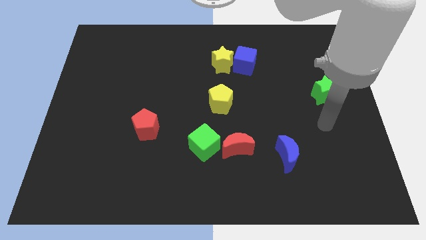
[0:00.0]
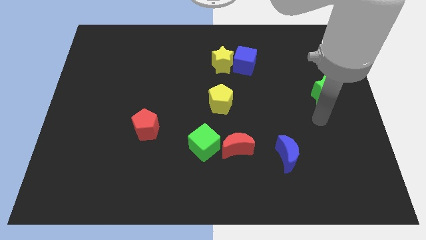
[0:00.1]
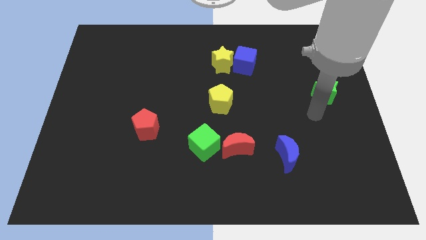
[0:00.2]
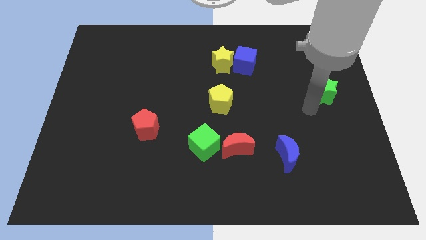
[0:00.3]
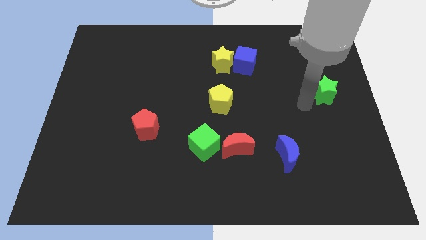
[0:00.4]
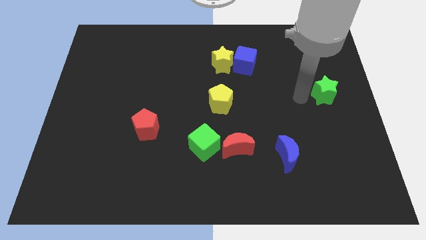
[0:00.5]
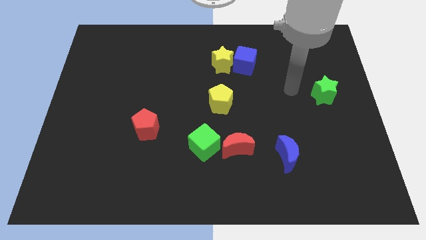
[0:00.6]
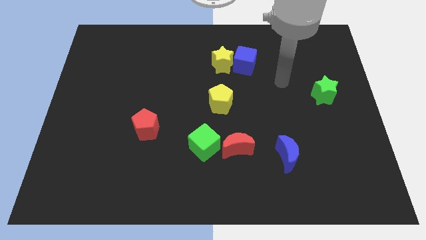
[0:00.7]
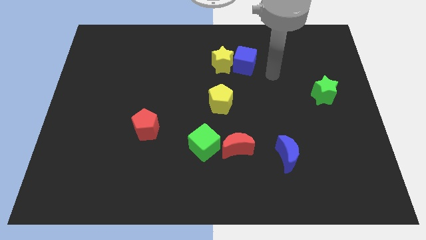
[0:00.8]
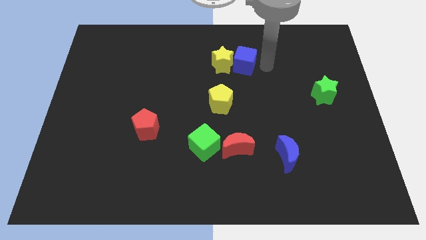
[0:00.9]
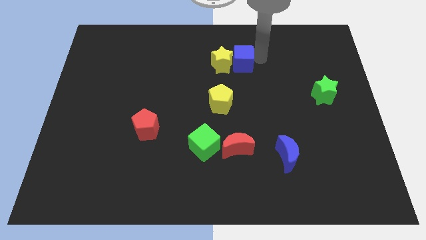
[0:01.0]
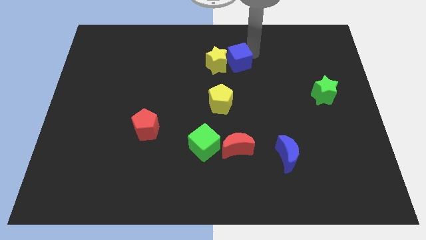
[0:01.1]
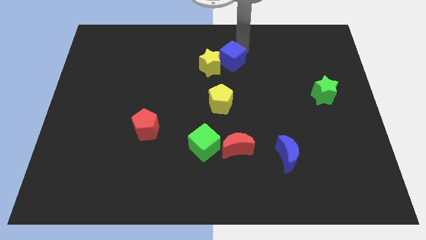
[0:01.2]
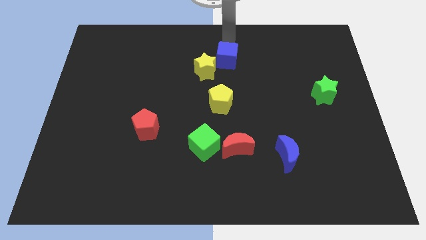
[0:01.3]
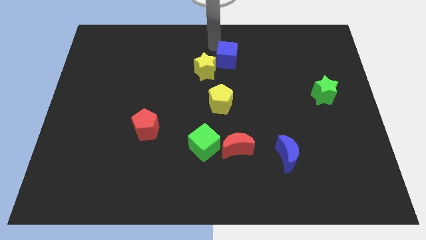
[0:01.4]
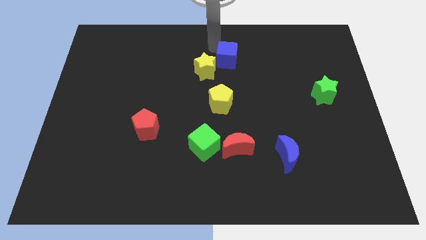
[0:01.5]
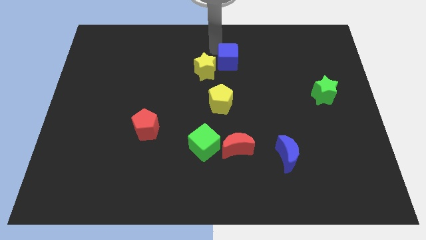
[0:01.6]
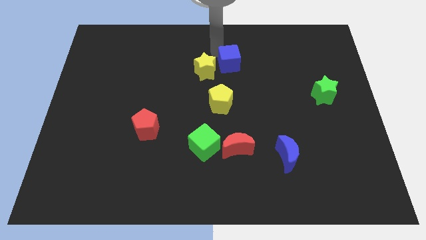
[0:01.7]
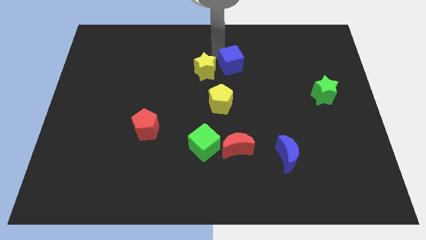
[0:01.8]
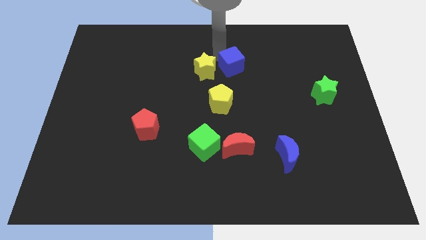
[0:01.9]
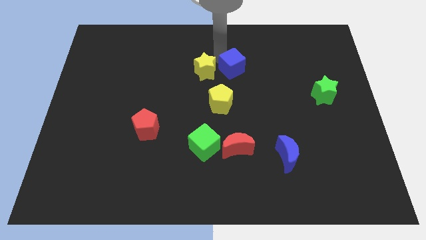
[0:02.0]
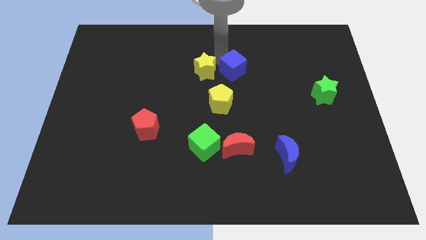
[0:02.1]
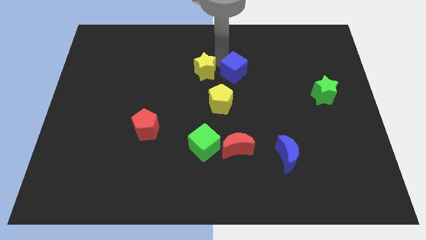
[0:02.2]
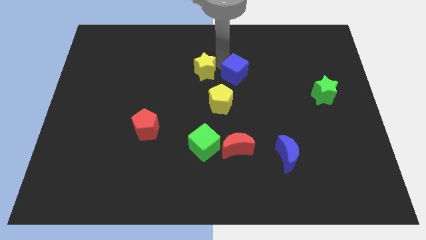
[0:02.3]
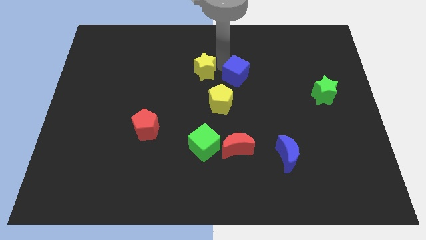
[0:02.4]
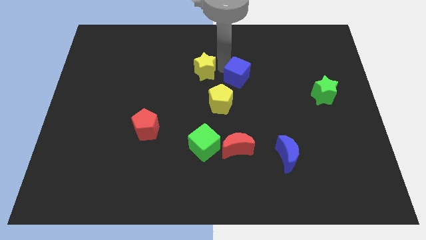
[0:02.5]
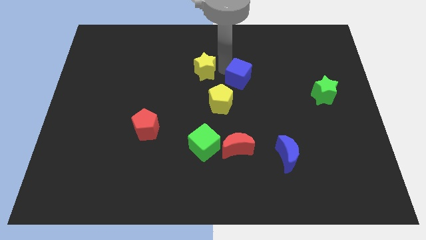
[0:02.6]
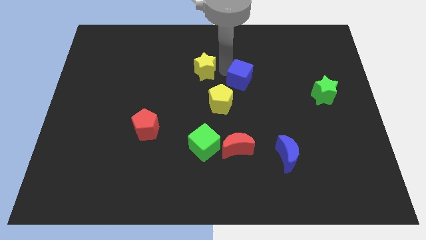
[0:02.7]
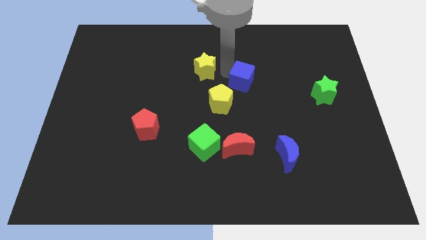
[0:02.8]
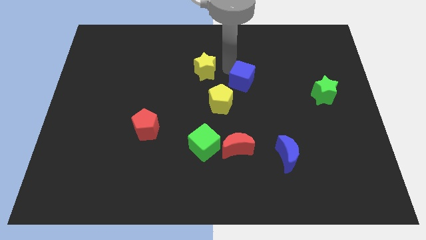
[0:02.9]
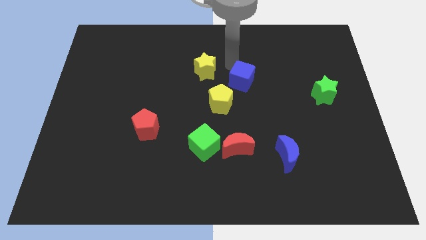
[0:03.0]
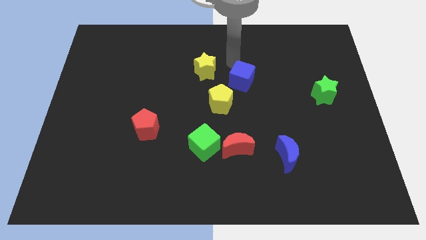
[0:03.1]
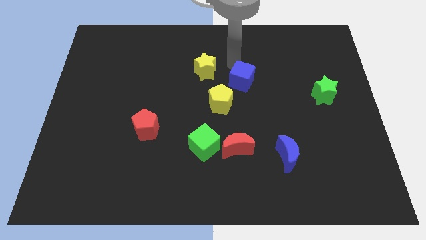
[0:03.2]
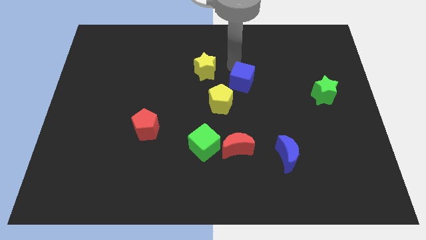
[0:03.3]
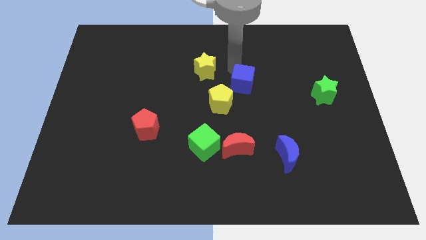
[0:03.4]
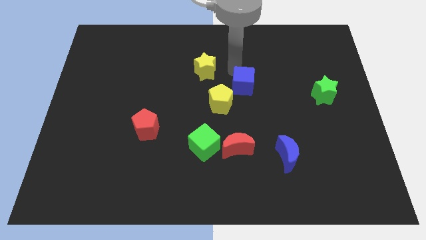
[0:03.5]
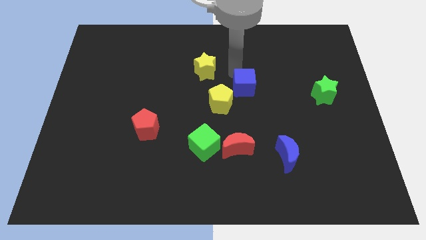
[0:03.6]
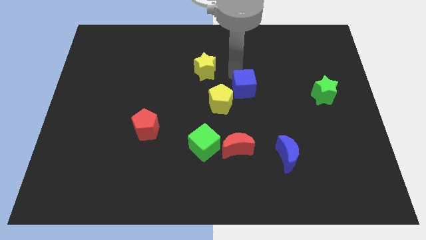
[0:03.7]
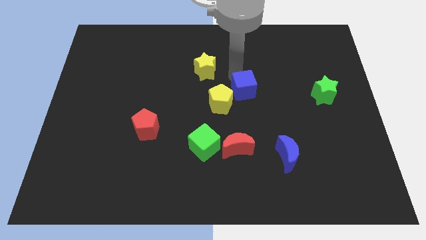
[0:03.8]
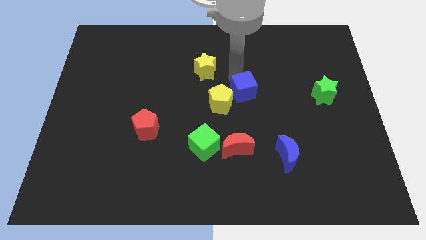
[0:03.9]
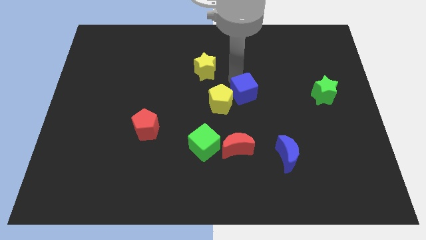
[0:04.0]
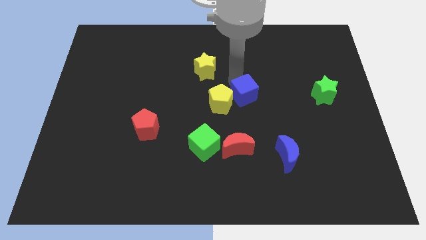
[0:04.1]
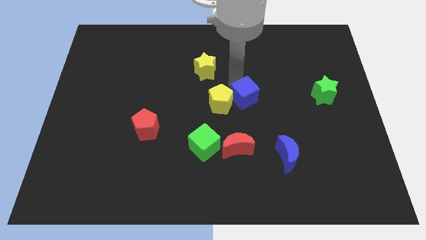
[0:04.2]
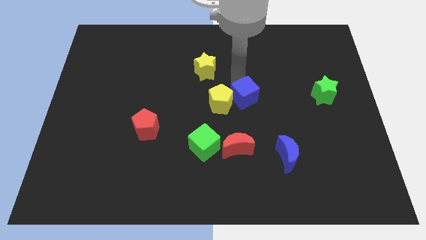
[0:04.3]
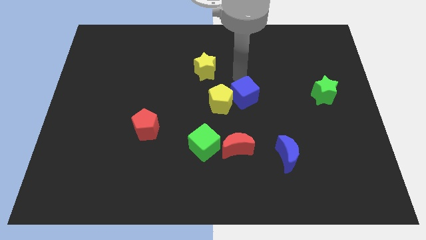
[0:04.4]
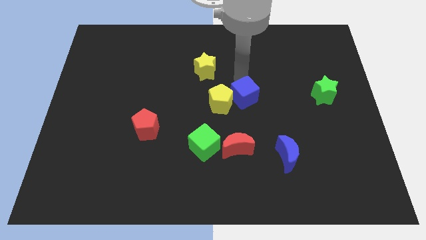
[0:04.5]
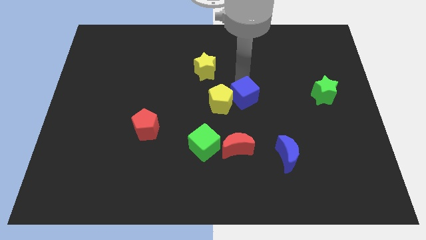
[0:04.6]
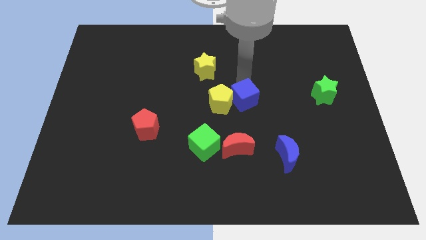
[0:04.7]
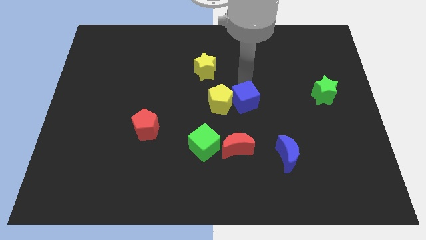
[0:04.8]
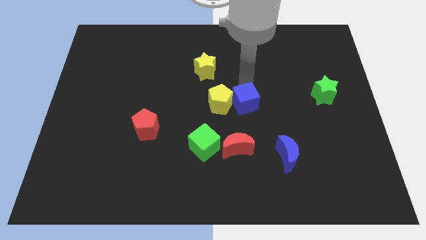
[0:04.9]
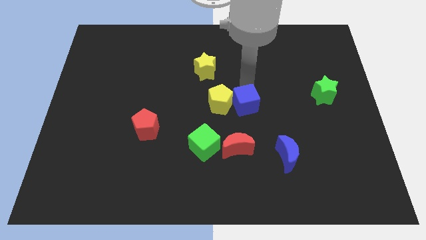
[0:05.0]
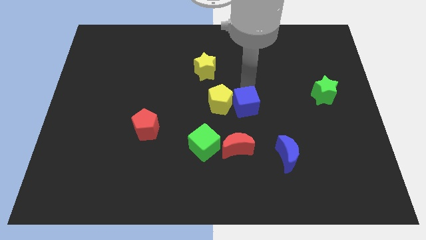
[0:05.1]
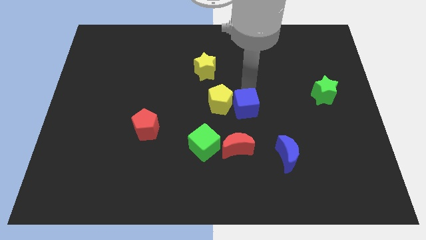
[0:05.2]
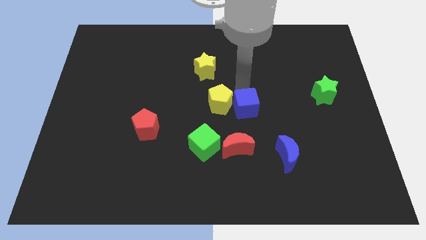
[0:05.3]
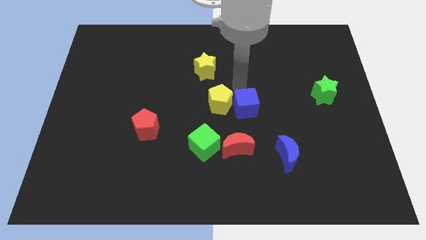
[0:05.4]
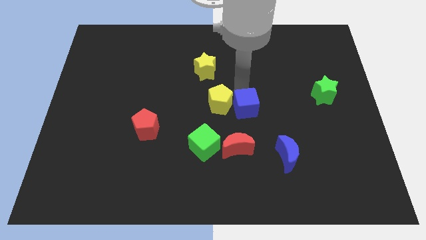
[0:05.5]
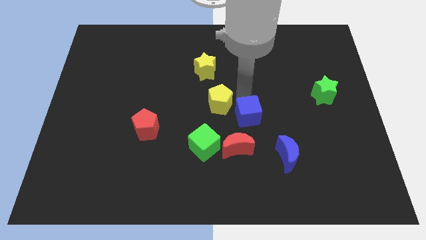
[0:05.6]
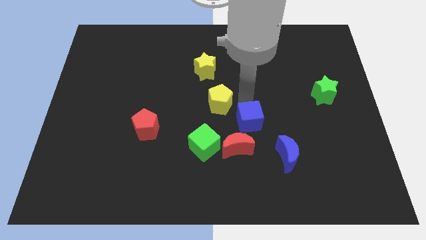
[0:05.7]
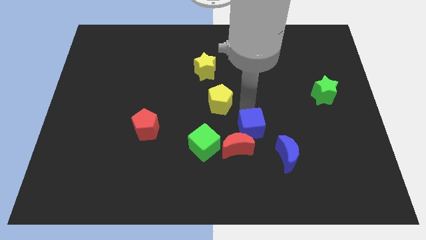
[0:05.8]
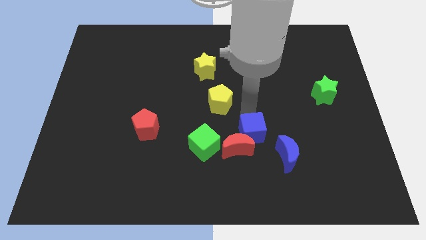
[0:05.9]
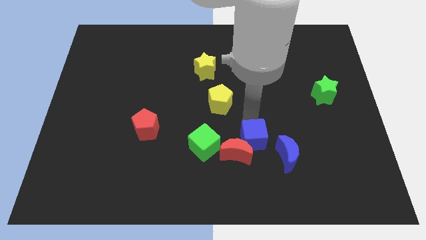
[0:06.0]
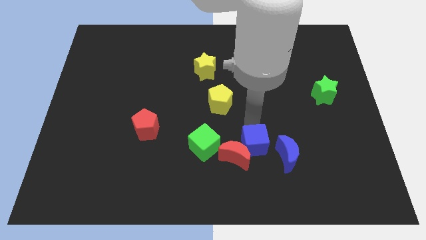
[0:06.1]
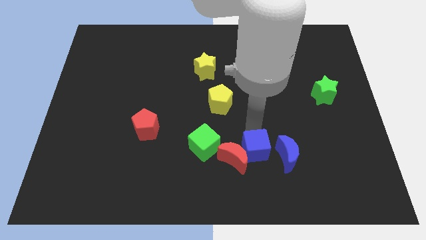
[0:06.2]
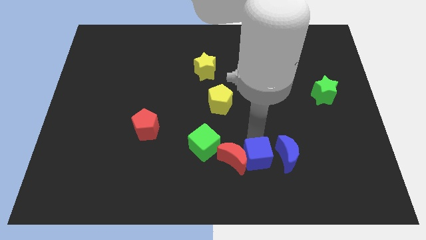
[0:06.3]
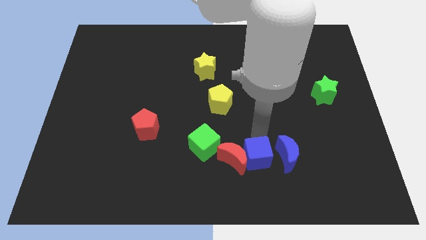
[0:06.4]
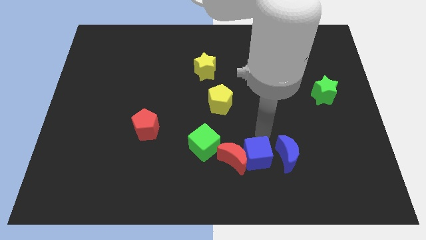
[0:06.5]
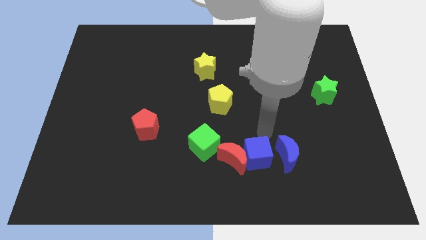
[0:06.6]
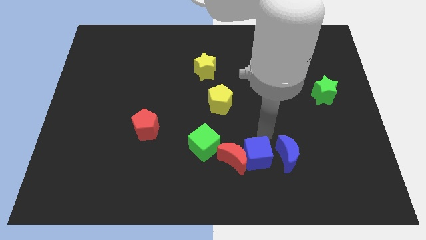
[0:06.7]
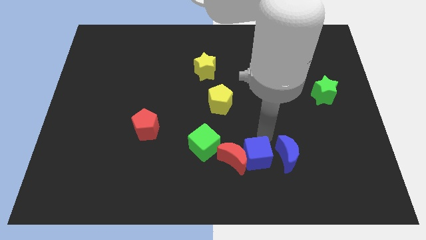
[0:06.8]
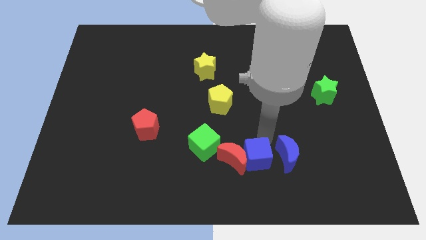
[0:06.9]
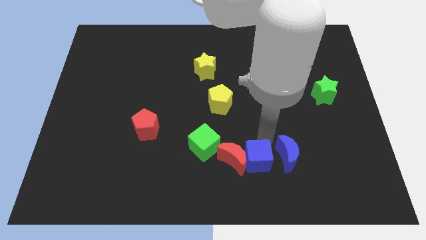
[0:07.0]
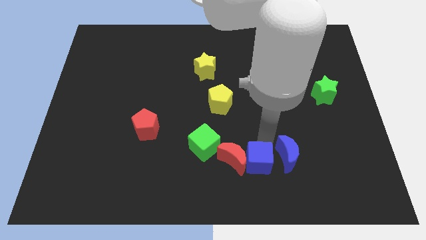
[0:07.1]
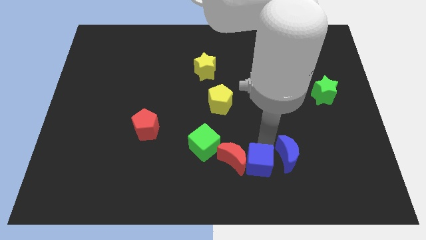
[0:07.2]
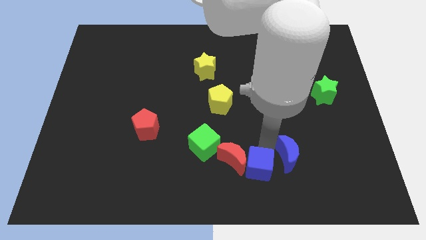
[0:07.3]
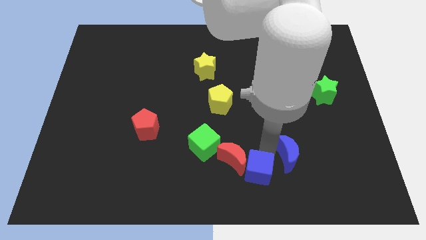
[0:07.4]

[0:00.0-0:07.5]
put the blue cube to the bottom
